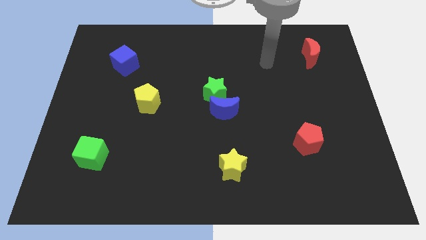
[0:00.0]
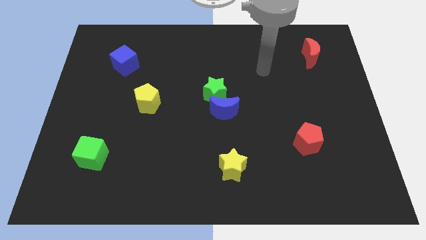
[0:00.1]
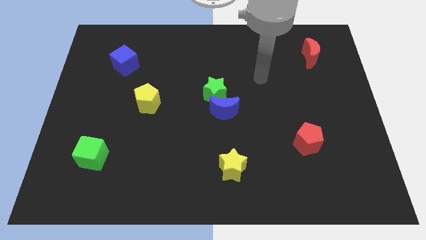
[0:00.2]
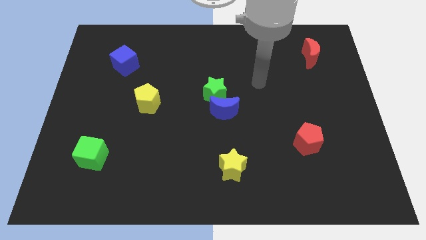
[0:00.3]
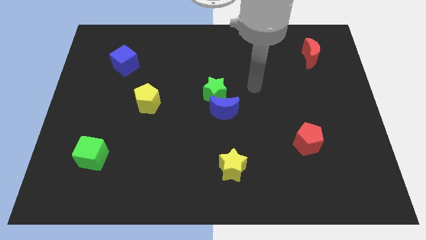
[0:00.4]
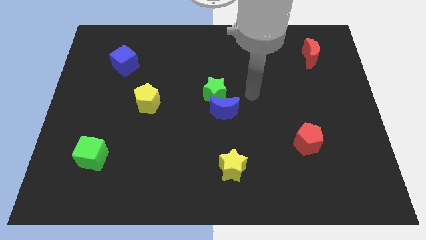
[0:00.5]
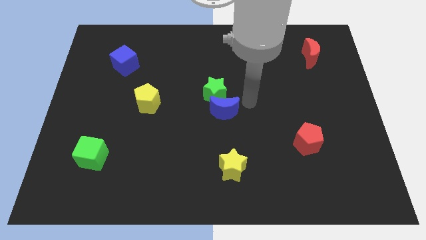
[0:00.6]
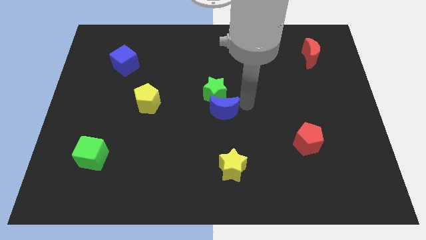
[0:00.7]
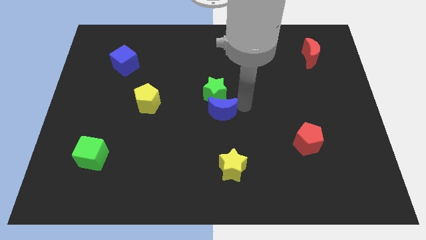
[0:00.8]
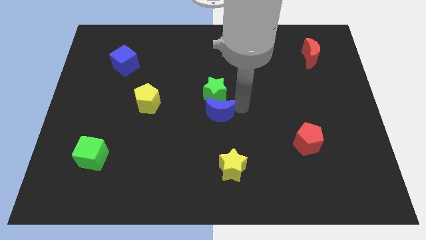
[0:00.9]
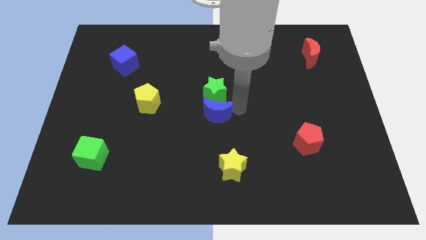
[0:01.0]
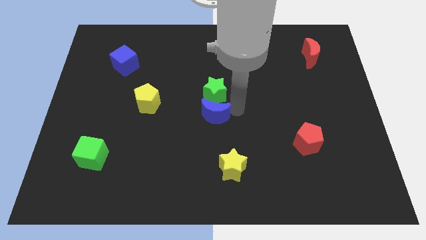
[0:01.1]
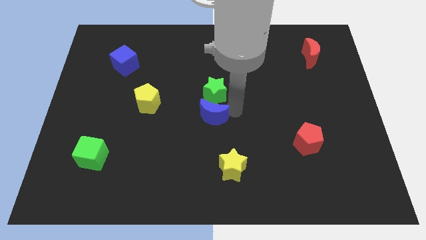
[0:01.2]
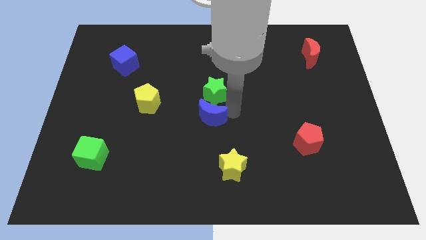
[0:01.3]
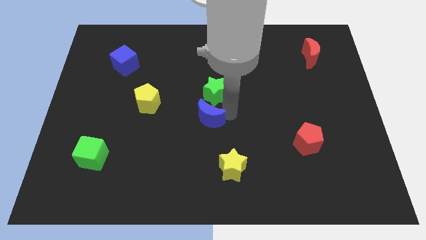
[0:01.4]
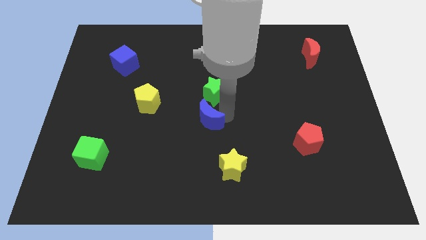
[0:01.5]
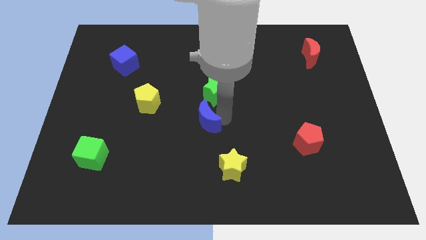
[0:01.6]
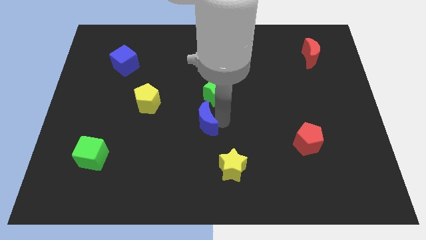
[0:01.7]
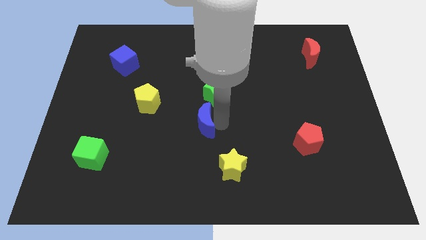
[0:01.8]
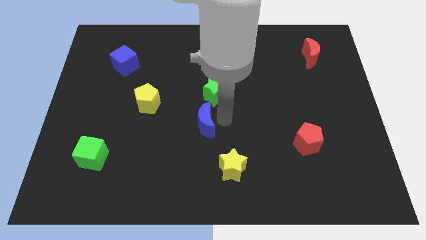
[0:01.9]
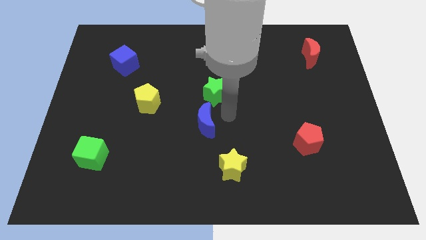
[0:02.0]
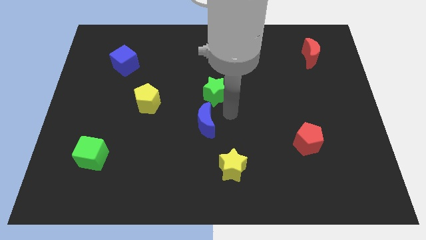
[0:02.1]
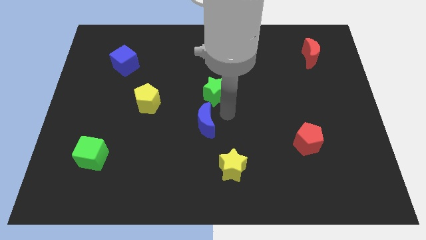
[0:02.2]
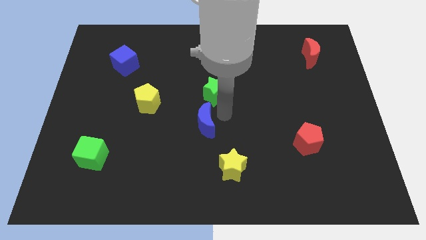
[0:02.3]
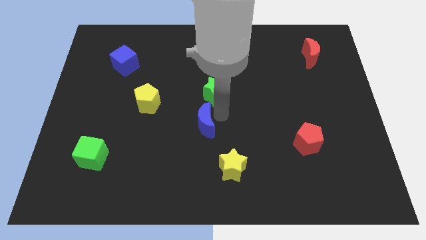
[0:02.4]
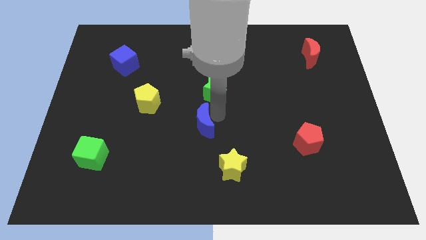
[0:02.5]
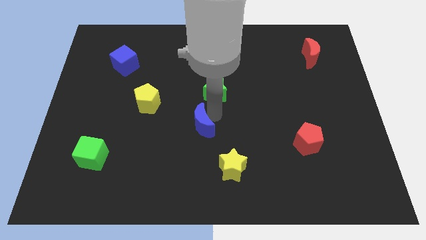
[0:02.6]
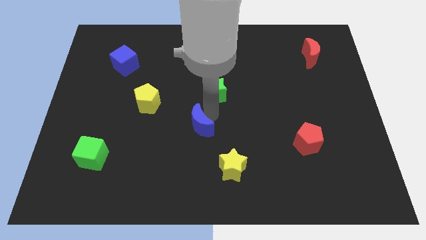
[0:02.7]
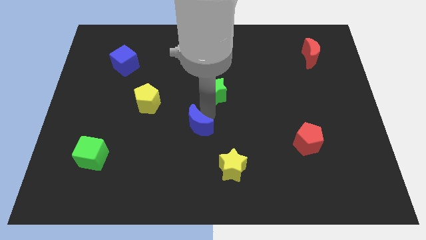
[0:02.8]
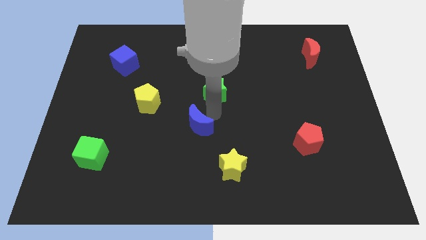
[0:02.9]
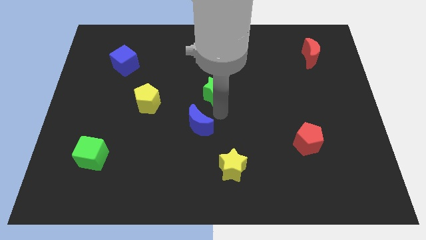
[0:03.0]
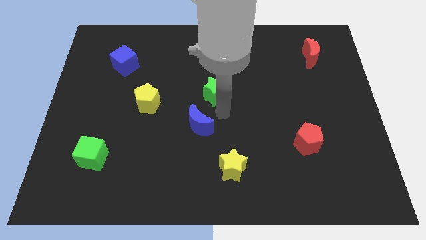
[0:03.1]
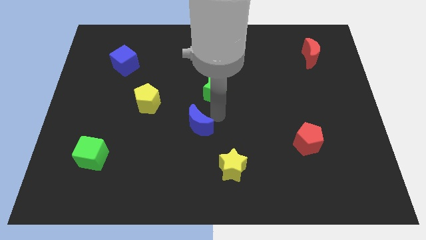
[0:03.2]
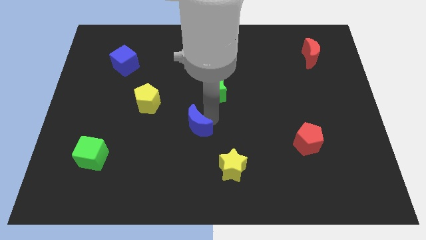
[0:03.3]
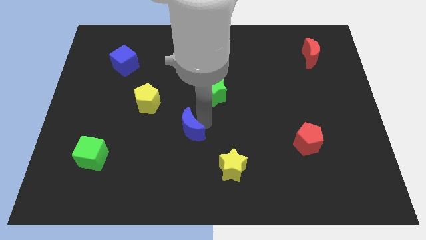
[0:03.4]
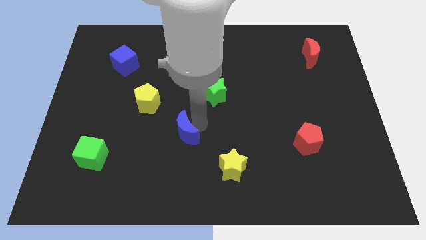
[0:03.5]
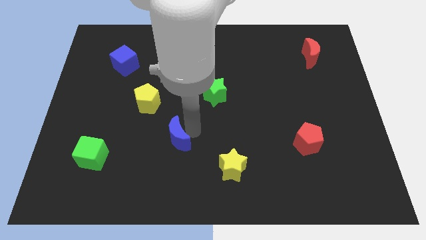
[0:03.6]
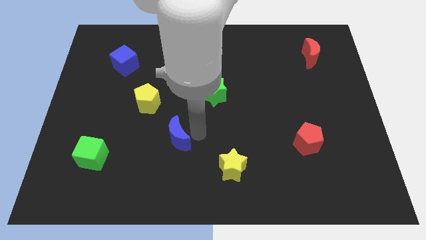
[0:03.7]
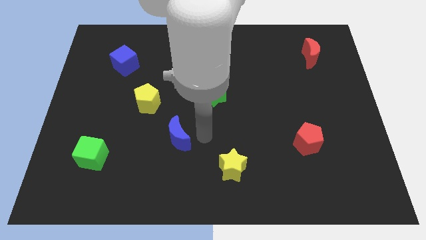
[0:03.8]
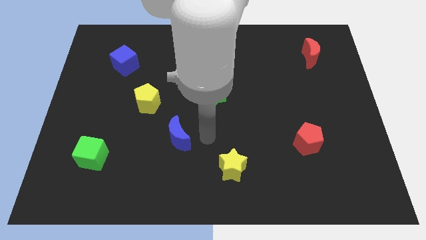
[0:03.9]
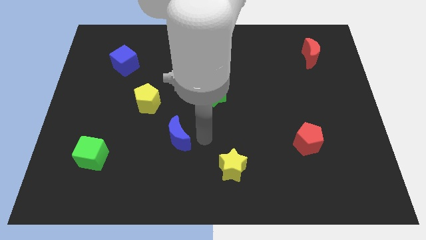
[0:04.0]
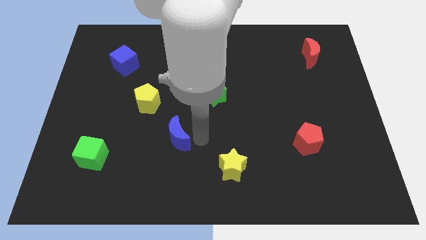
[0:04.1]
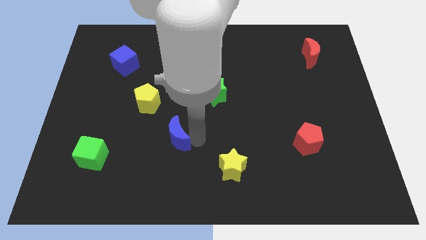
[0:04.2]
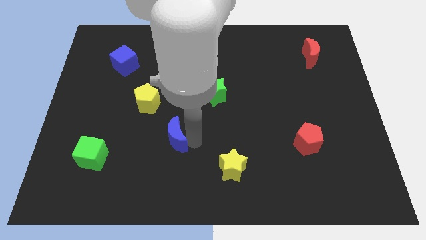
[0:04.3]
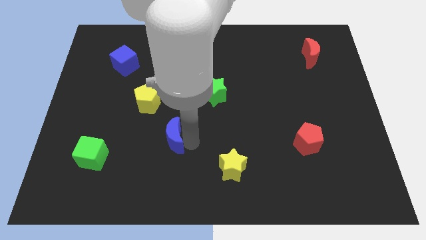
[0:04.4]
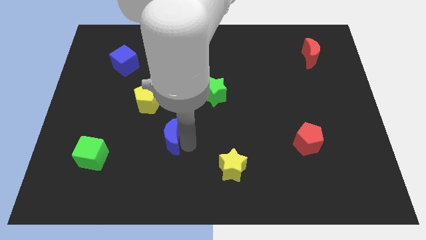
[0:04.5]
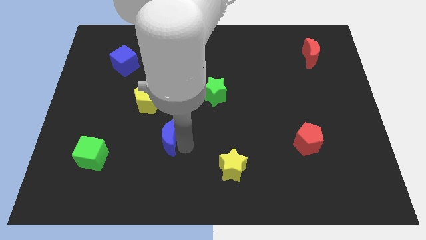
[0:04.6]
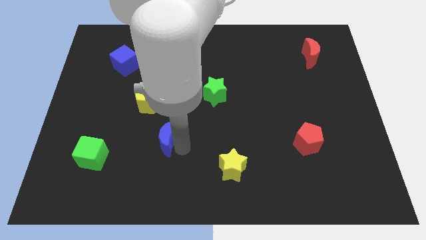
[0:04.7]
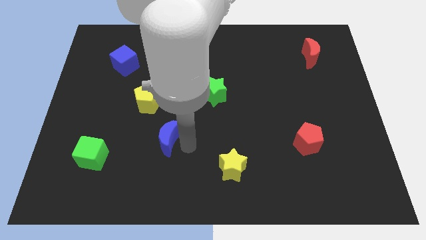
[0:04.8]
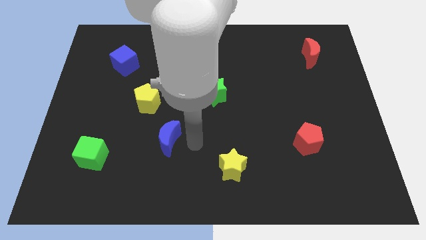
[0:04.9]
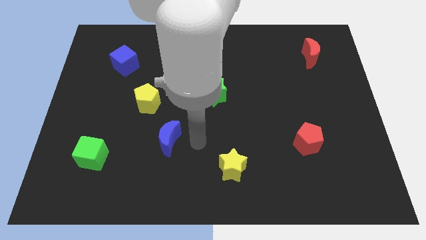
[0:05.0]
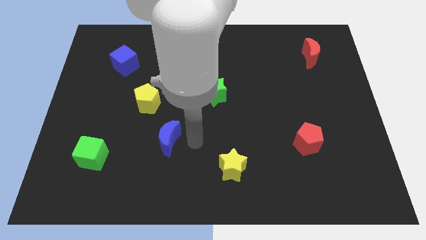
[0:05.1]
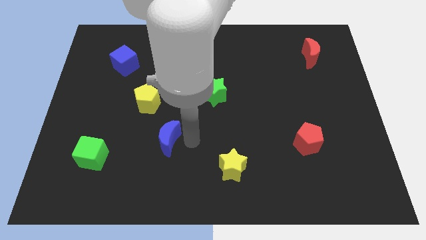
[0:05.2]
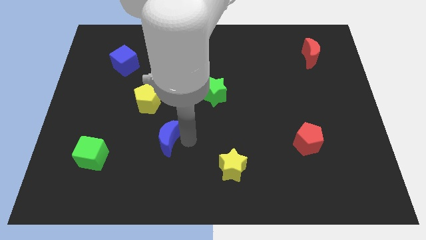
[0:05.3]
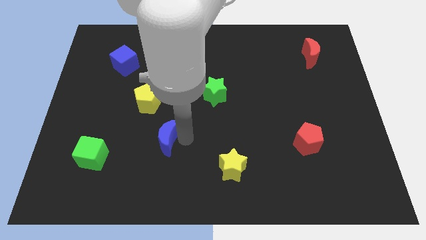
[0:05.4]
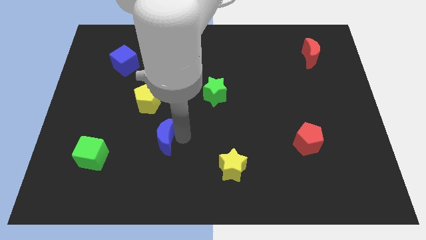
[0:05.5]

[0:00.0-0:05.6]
slide the blue moon to the bottom of the yellow pentagon

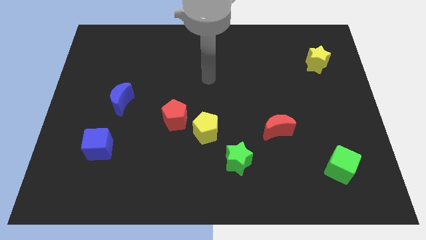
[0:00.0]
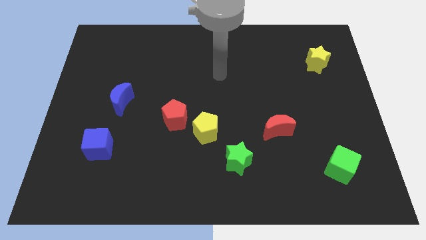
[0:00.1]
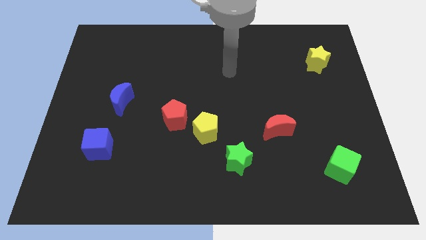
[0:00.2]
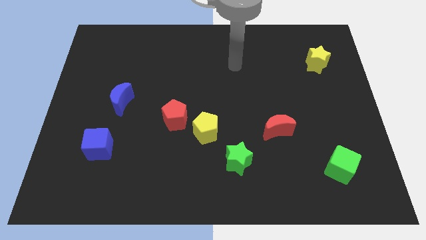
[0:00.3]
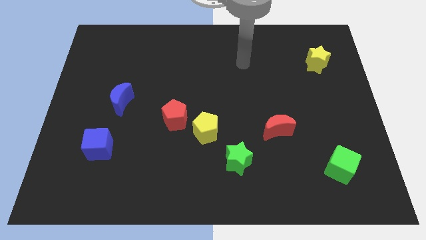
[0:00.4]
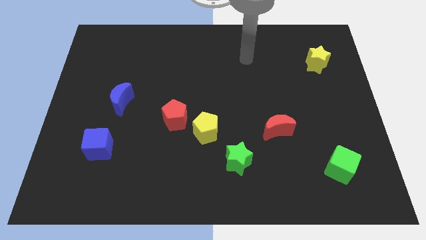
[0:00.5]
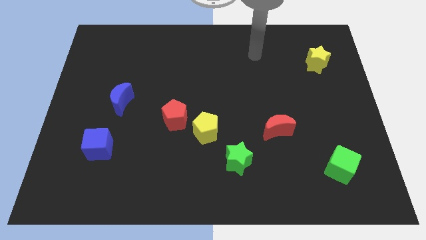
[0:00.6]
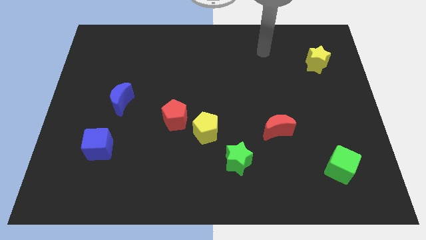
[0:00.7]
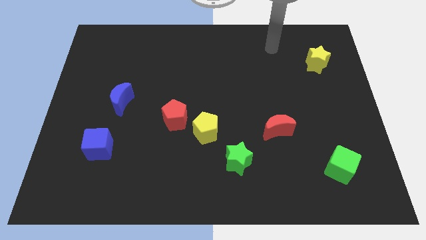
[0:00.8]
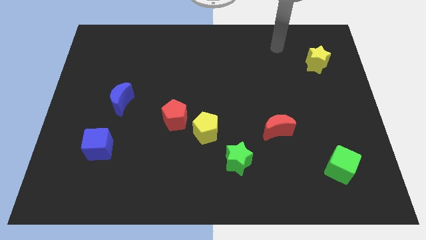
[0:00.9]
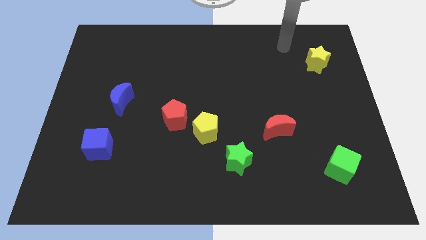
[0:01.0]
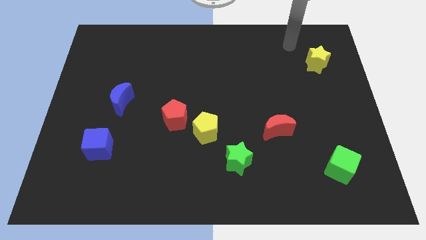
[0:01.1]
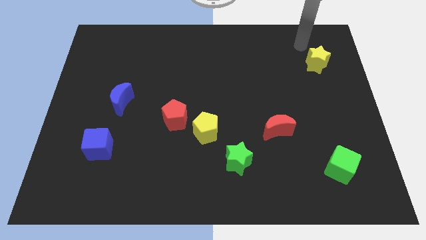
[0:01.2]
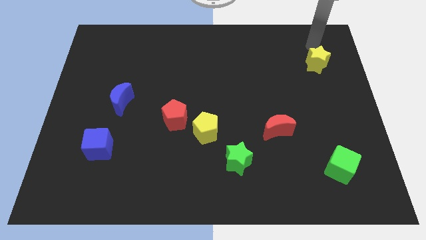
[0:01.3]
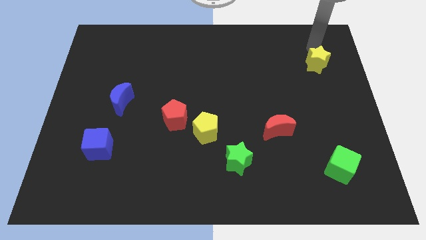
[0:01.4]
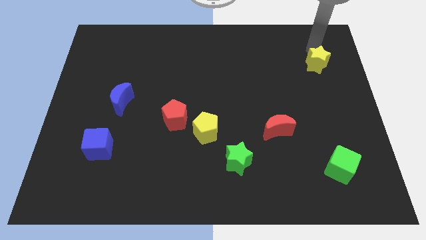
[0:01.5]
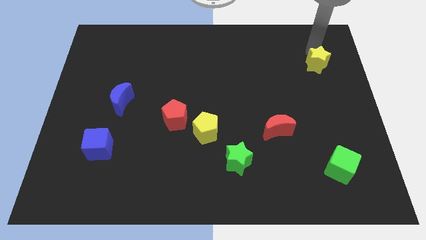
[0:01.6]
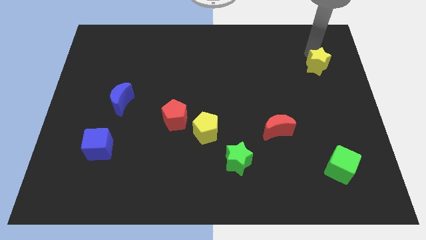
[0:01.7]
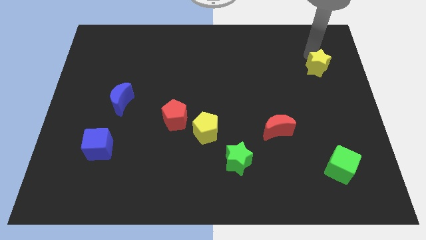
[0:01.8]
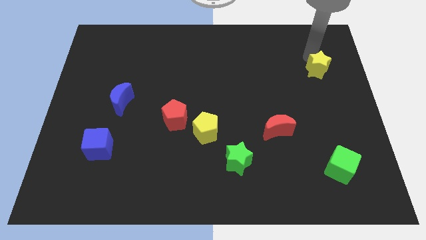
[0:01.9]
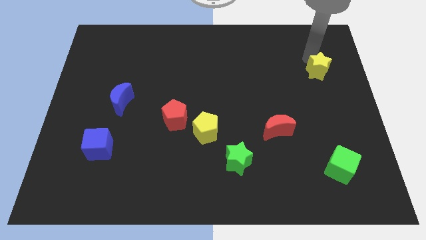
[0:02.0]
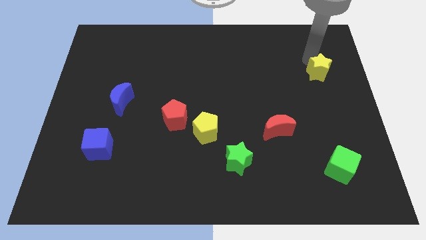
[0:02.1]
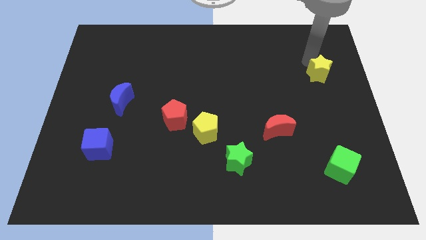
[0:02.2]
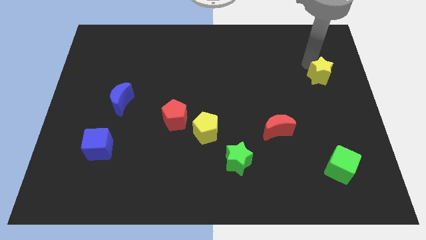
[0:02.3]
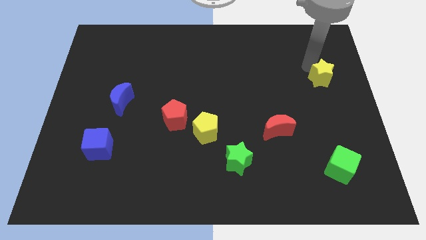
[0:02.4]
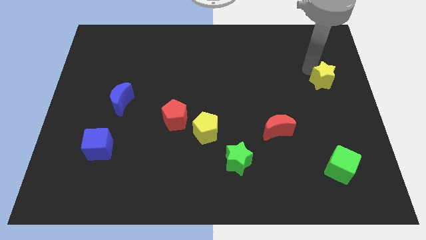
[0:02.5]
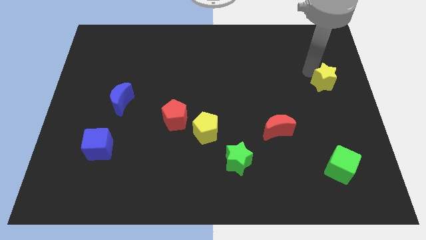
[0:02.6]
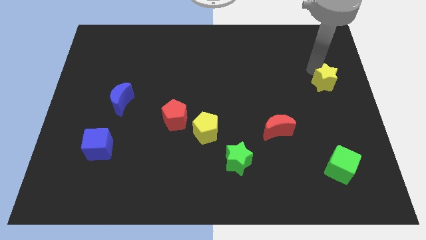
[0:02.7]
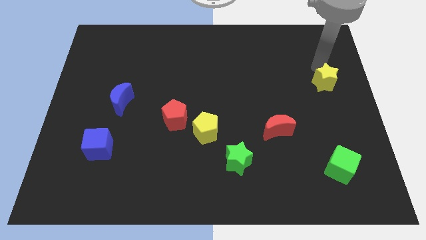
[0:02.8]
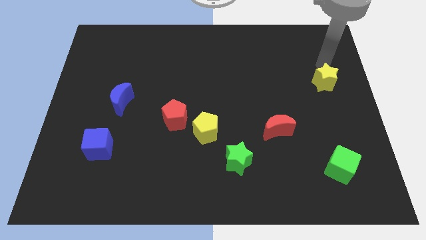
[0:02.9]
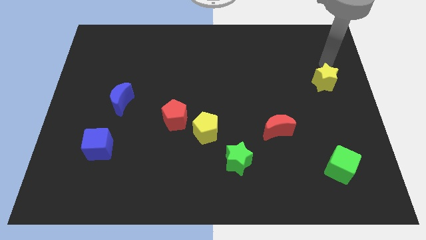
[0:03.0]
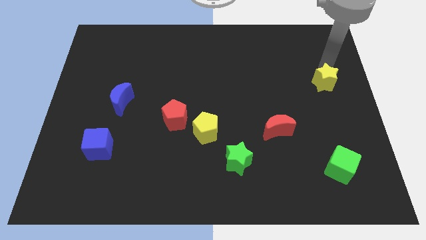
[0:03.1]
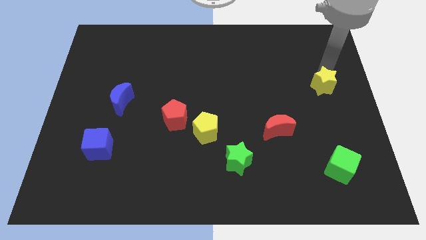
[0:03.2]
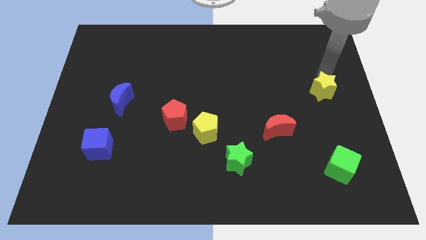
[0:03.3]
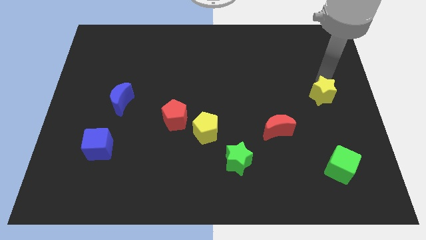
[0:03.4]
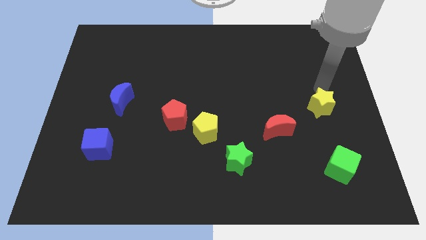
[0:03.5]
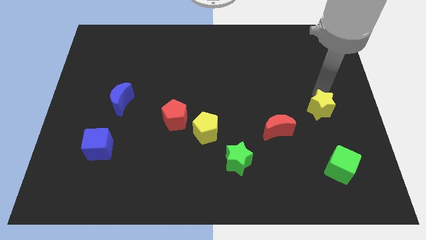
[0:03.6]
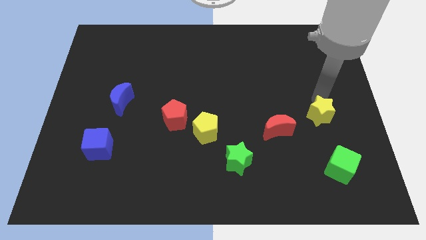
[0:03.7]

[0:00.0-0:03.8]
push the yellow star to the right of the red moon
